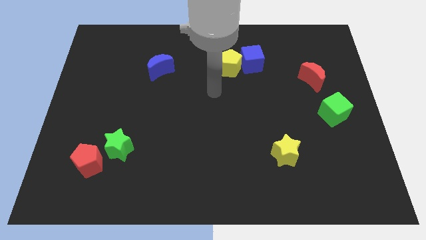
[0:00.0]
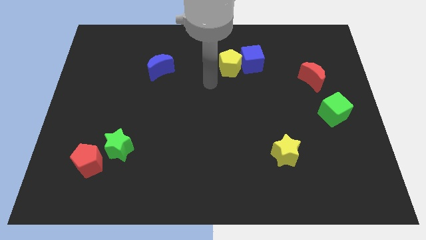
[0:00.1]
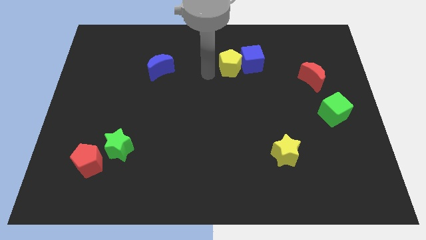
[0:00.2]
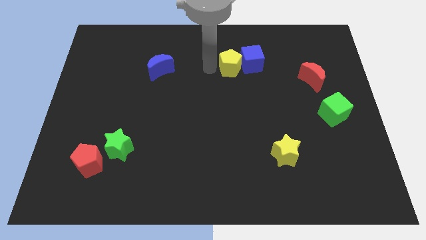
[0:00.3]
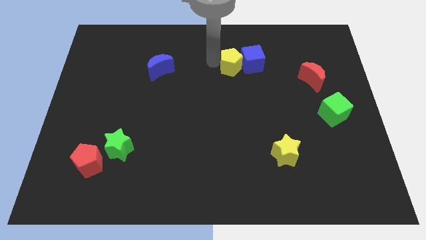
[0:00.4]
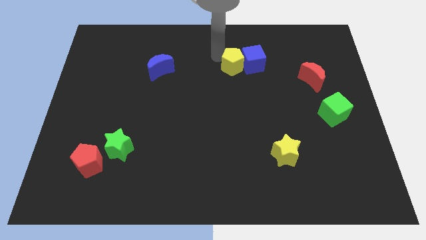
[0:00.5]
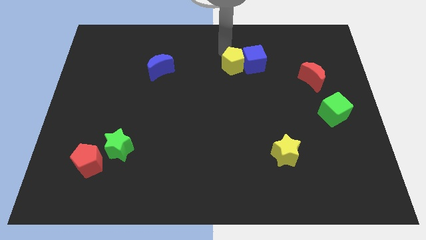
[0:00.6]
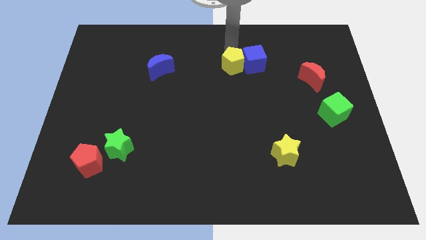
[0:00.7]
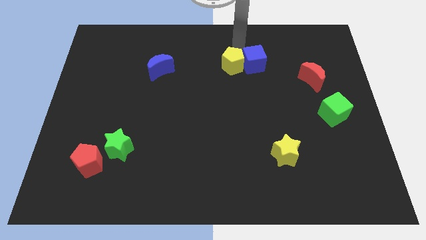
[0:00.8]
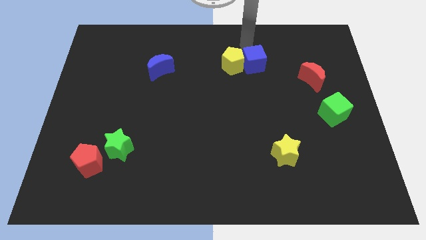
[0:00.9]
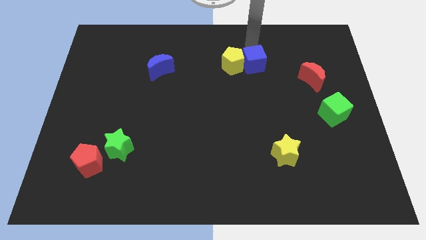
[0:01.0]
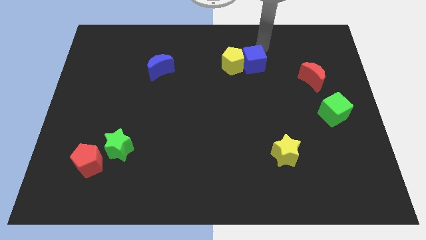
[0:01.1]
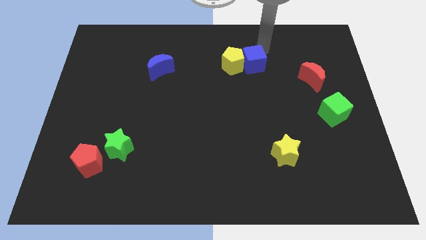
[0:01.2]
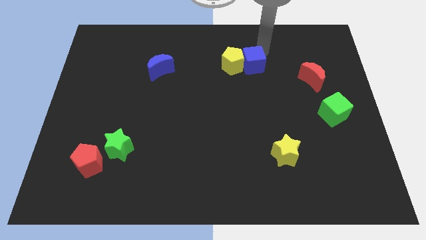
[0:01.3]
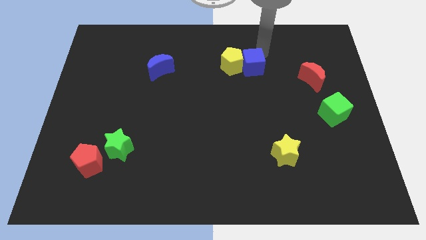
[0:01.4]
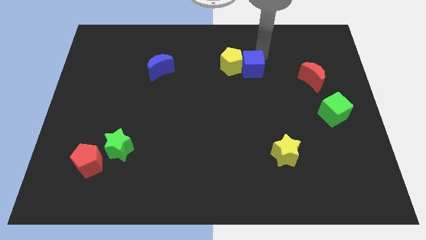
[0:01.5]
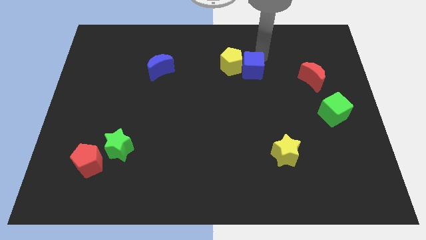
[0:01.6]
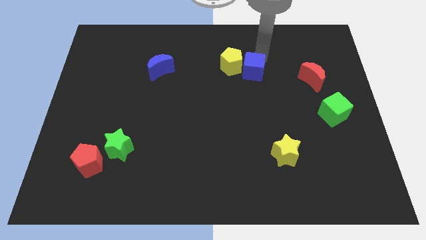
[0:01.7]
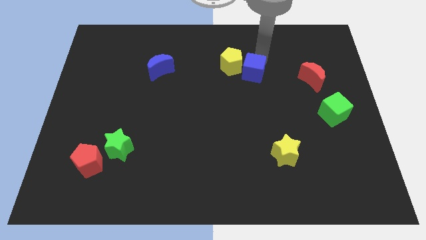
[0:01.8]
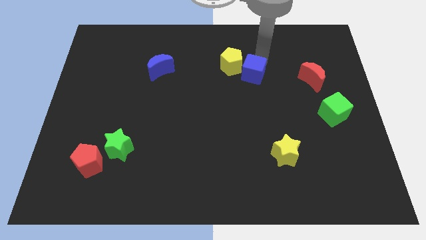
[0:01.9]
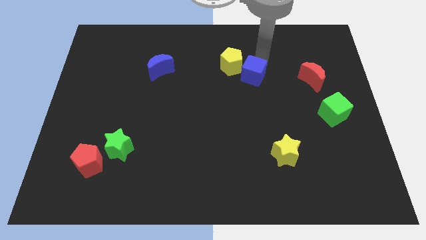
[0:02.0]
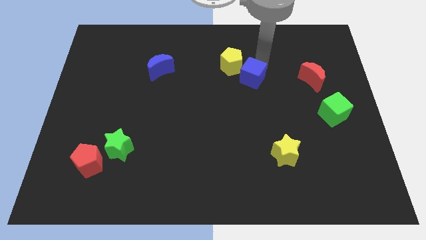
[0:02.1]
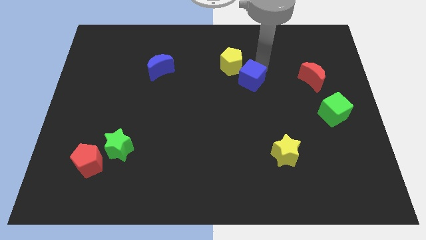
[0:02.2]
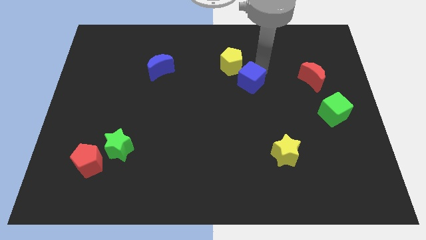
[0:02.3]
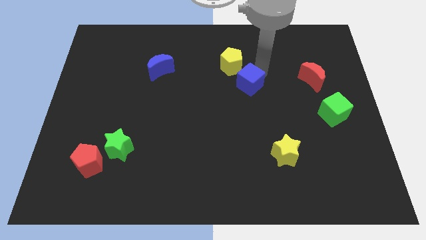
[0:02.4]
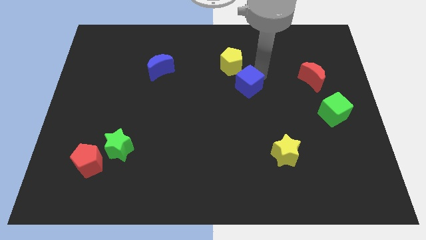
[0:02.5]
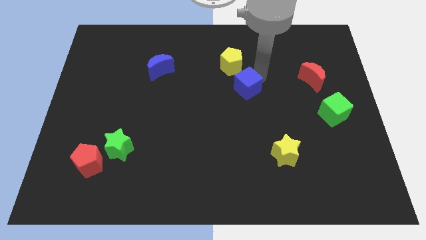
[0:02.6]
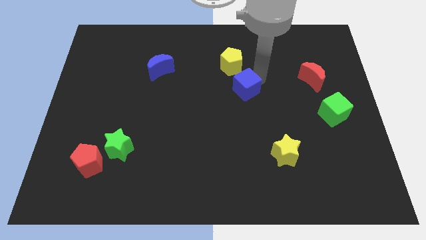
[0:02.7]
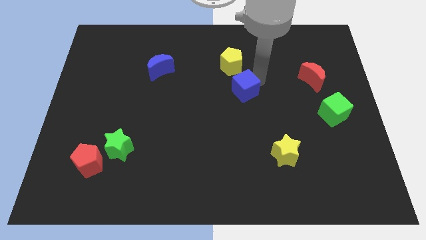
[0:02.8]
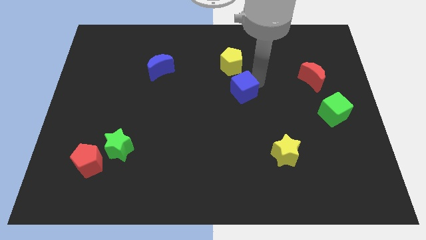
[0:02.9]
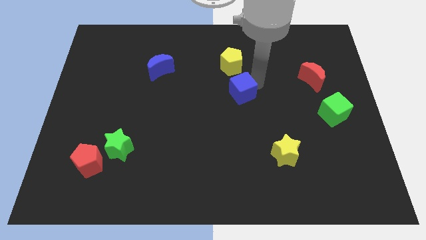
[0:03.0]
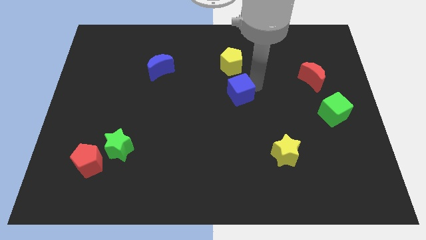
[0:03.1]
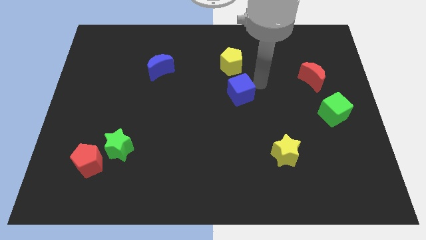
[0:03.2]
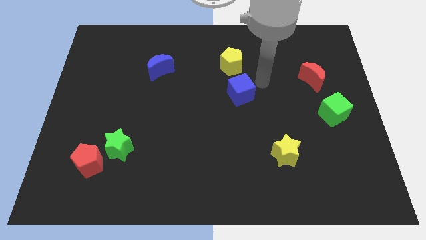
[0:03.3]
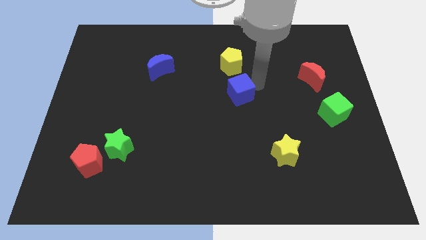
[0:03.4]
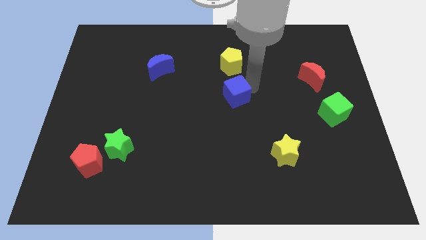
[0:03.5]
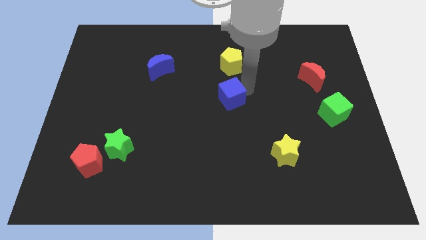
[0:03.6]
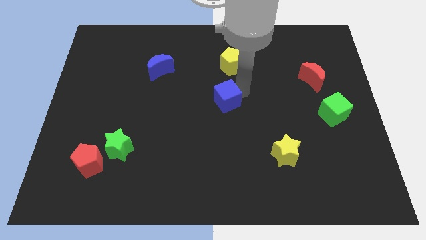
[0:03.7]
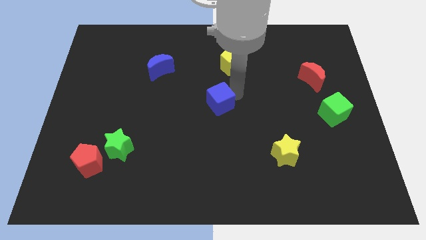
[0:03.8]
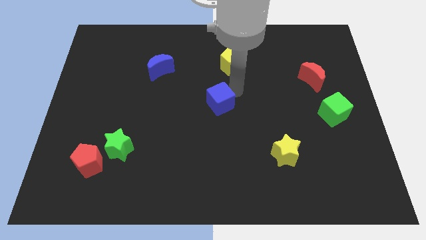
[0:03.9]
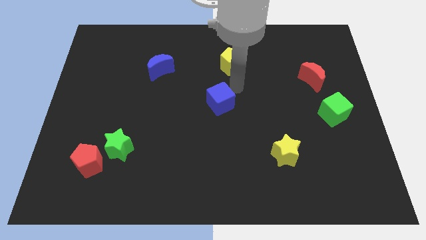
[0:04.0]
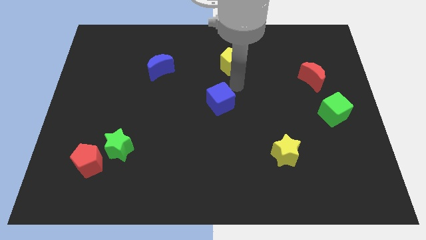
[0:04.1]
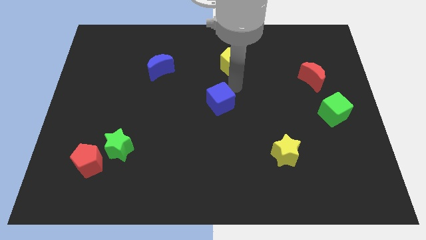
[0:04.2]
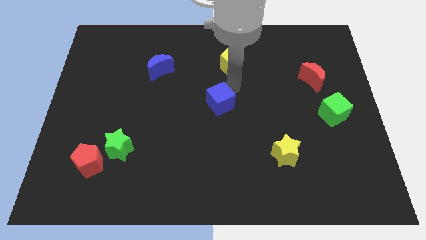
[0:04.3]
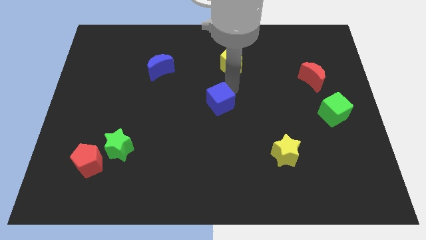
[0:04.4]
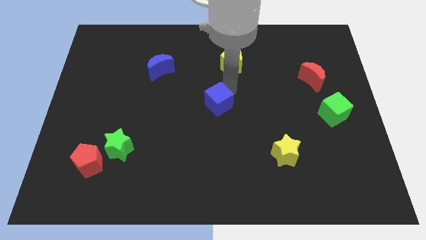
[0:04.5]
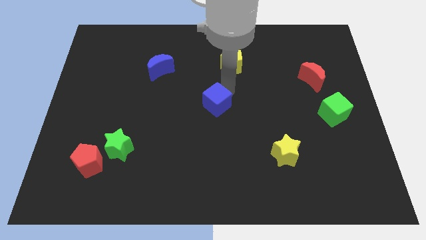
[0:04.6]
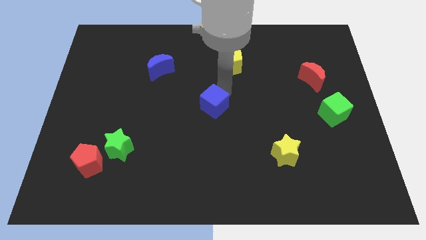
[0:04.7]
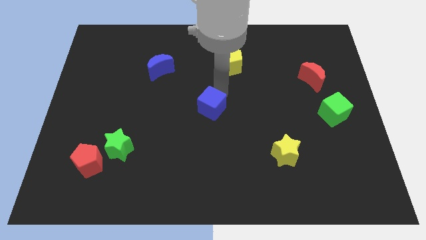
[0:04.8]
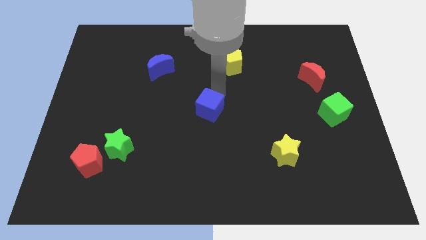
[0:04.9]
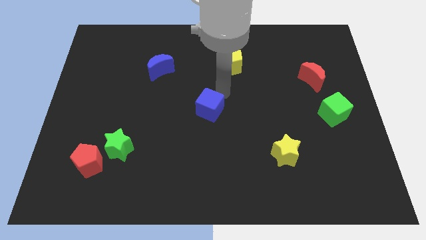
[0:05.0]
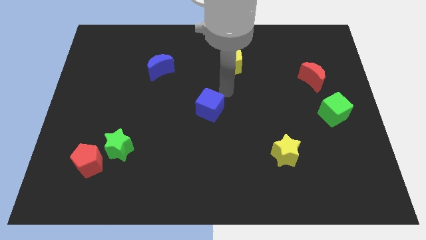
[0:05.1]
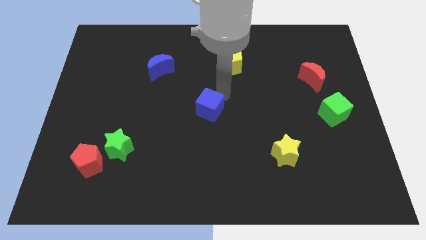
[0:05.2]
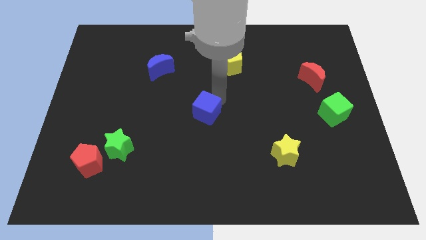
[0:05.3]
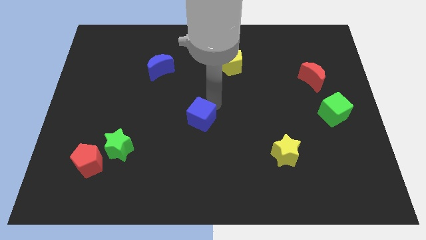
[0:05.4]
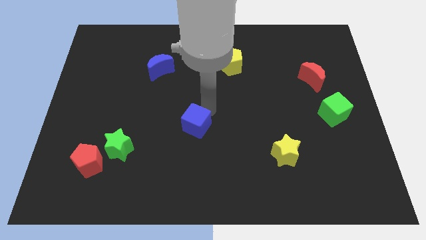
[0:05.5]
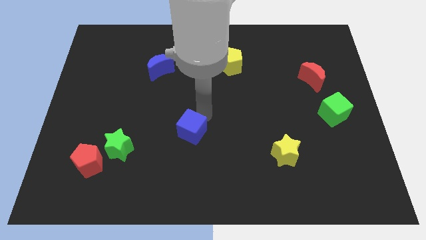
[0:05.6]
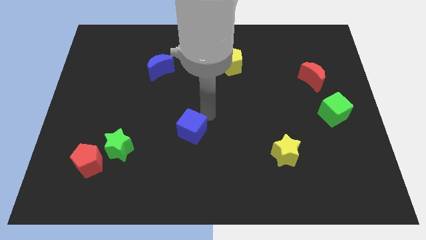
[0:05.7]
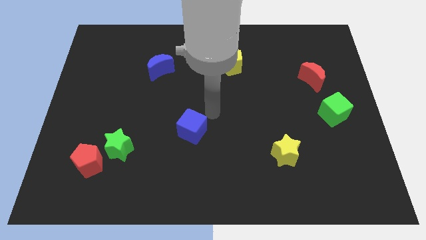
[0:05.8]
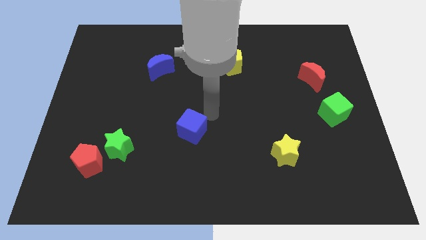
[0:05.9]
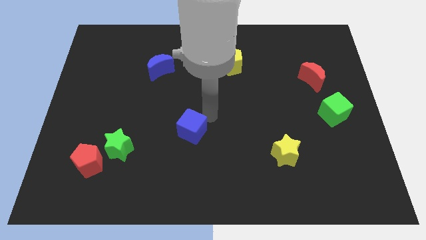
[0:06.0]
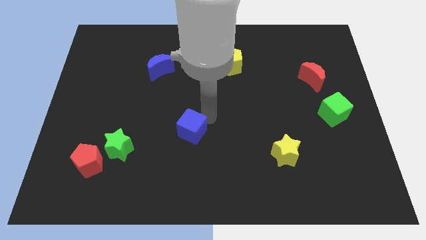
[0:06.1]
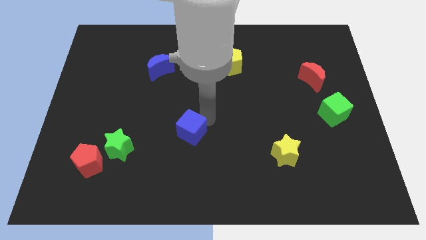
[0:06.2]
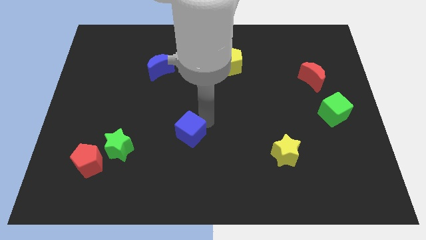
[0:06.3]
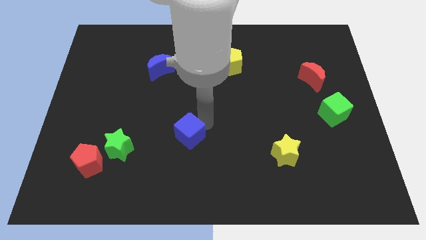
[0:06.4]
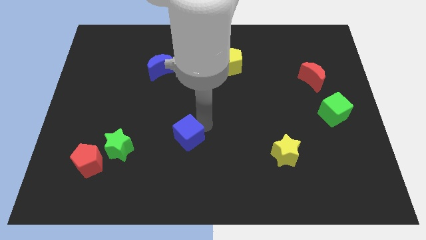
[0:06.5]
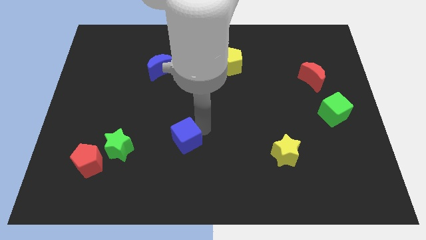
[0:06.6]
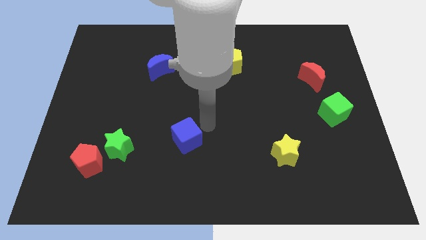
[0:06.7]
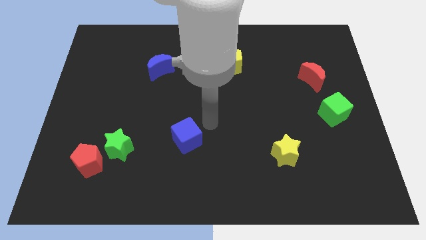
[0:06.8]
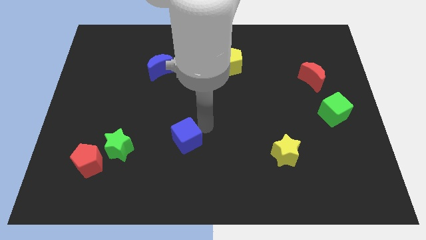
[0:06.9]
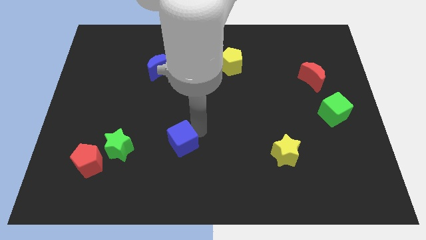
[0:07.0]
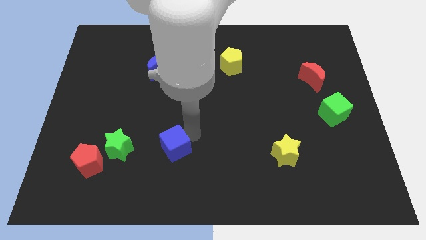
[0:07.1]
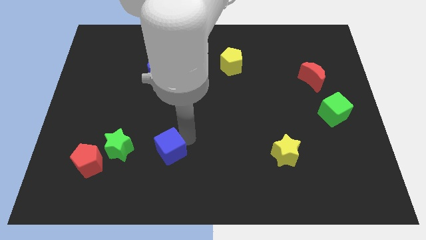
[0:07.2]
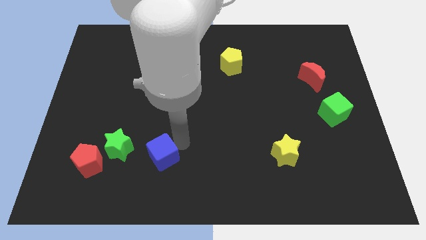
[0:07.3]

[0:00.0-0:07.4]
move the blue cube just right of the red pentagon
